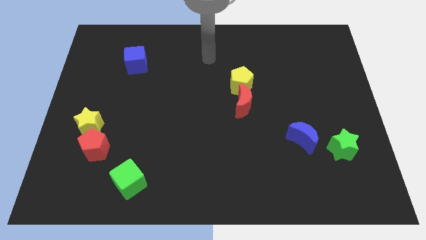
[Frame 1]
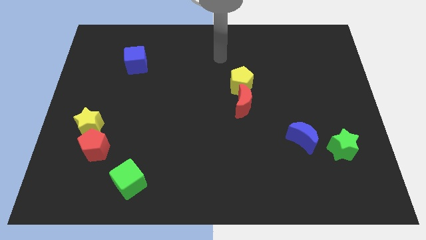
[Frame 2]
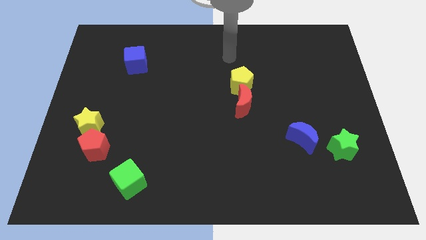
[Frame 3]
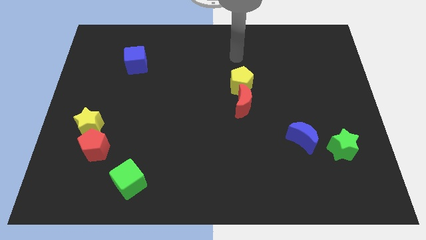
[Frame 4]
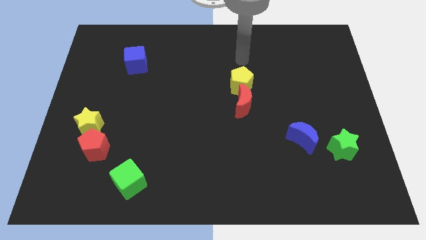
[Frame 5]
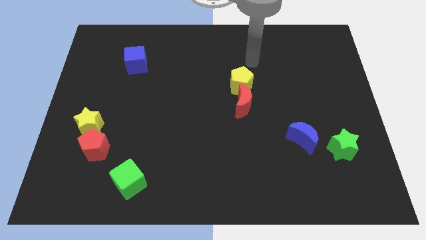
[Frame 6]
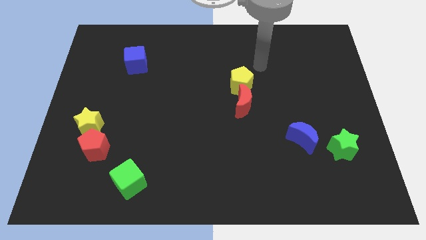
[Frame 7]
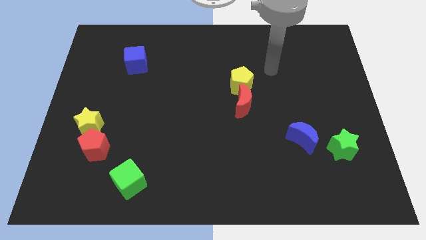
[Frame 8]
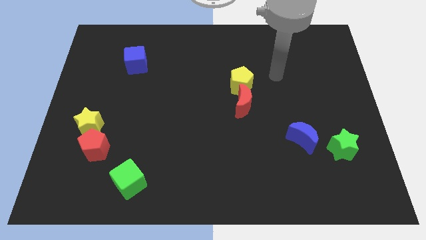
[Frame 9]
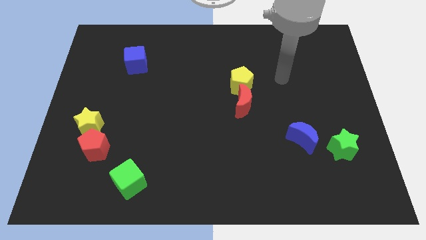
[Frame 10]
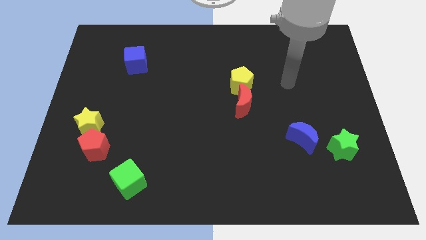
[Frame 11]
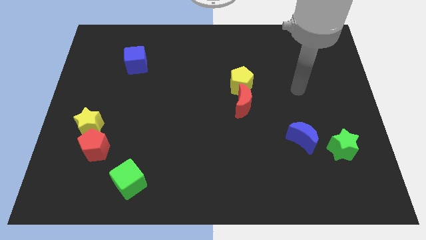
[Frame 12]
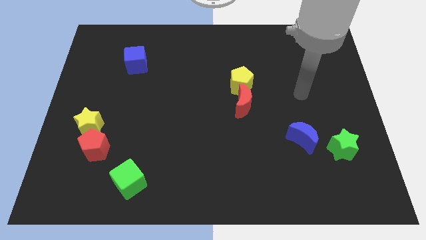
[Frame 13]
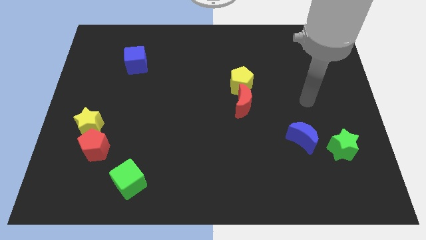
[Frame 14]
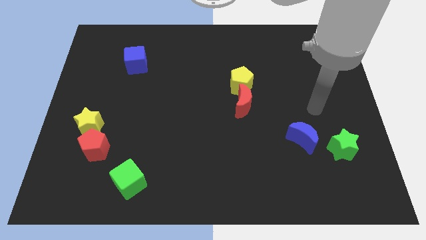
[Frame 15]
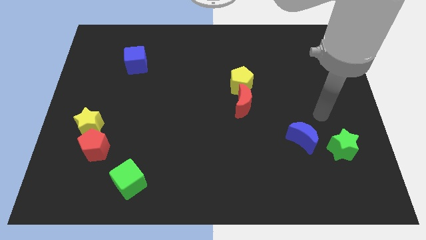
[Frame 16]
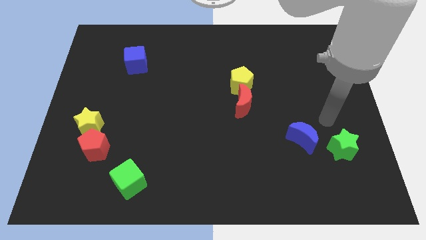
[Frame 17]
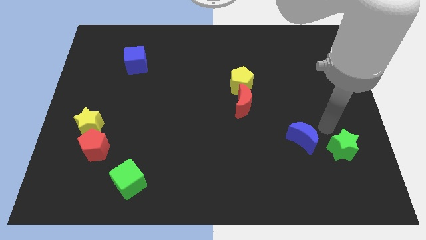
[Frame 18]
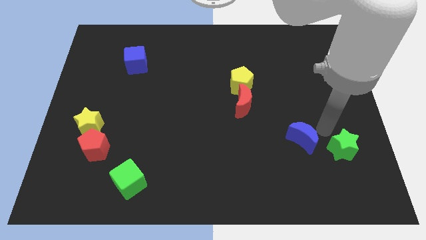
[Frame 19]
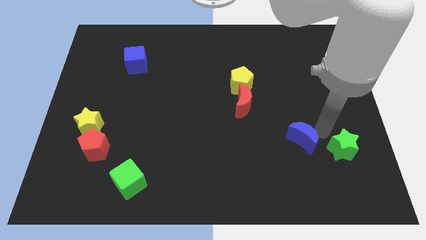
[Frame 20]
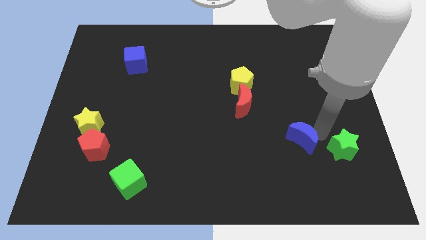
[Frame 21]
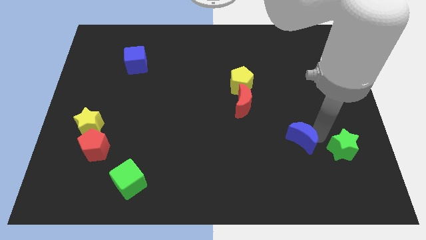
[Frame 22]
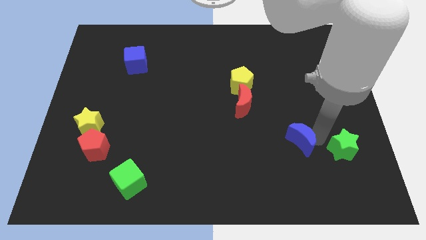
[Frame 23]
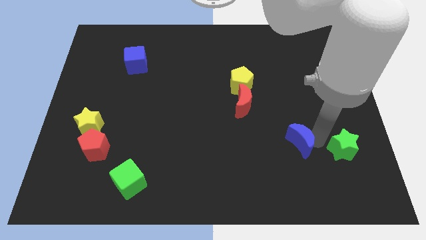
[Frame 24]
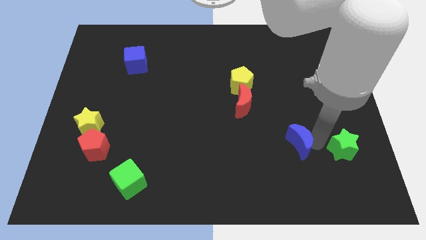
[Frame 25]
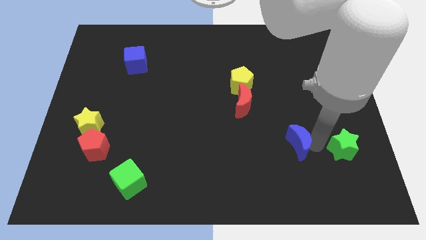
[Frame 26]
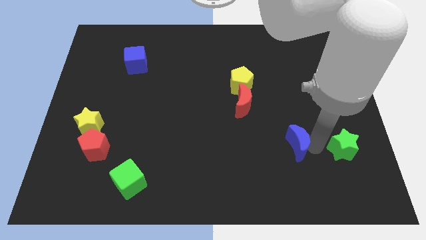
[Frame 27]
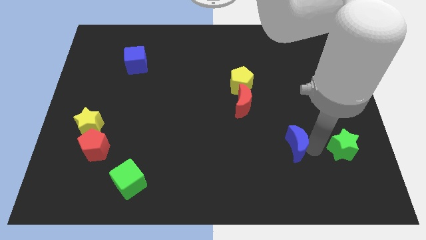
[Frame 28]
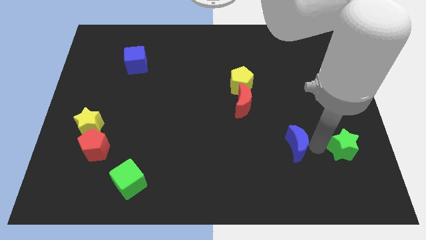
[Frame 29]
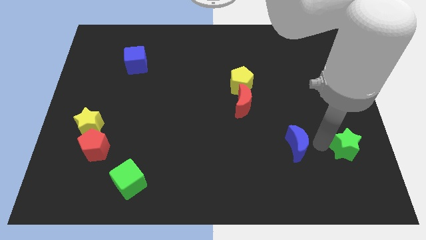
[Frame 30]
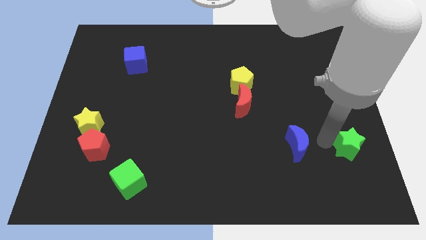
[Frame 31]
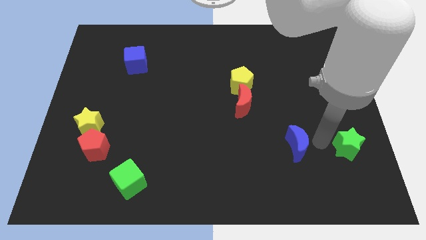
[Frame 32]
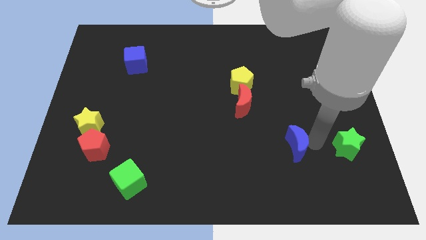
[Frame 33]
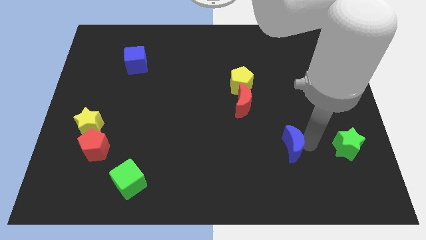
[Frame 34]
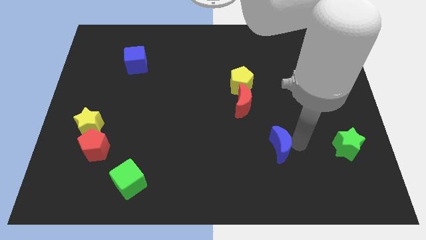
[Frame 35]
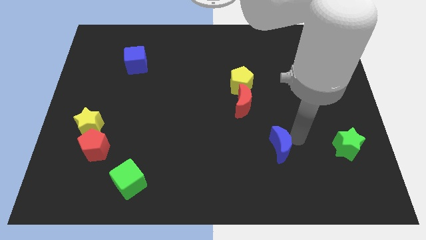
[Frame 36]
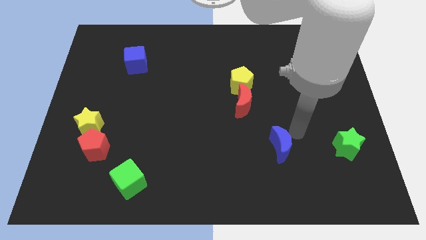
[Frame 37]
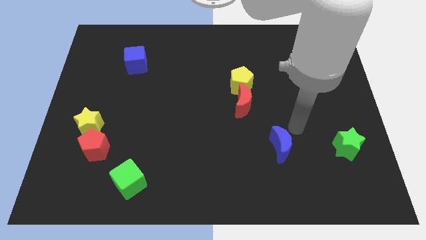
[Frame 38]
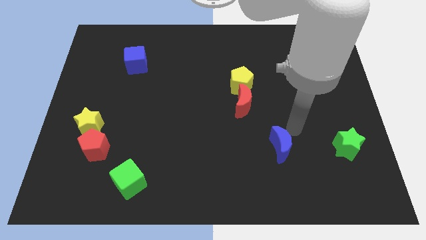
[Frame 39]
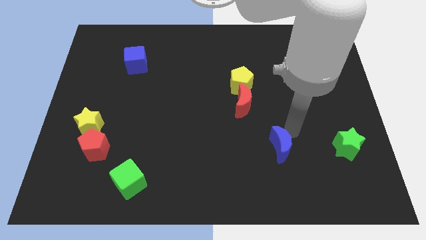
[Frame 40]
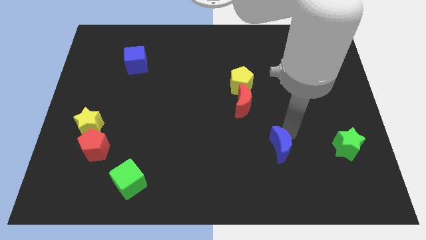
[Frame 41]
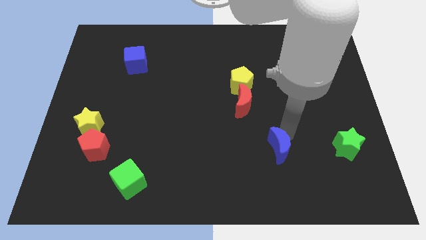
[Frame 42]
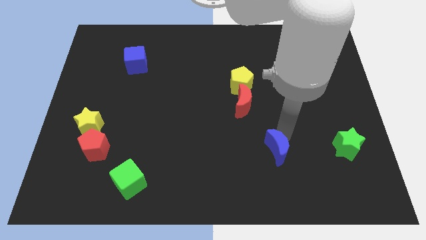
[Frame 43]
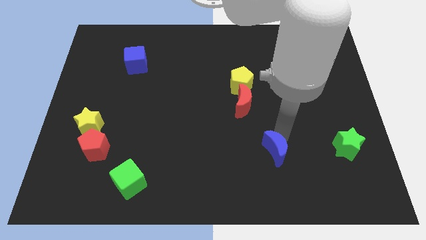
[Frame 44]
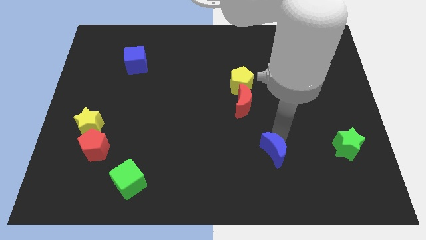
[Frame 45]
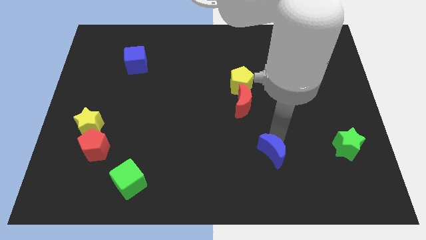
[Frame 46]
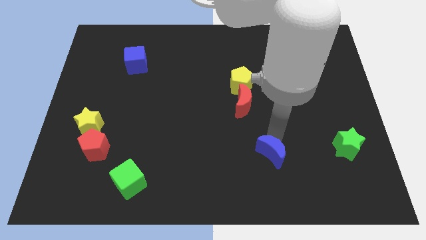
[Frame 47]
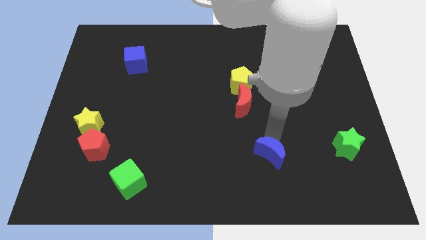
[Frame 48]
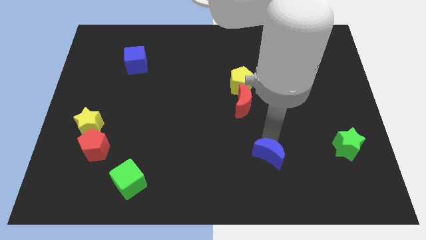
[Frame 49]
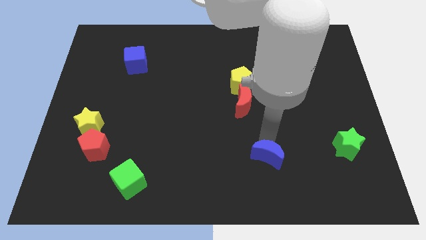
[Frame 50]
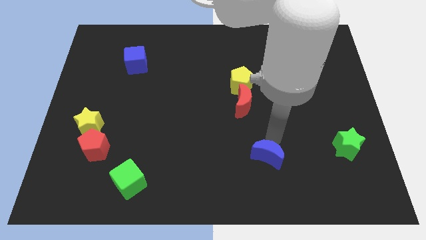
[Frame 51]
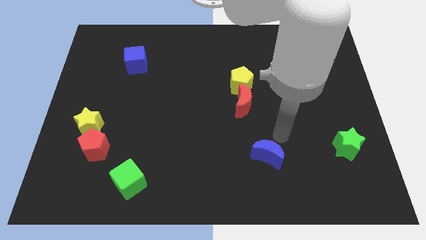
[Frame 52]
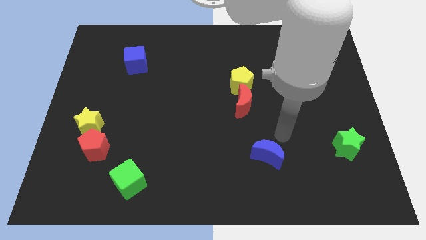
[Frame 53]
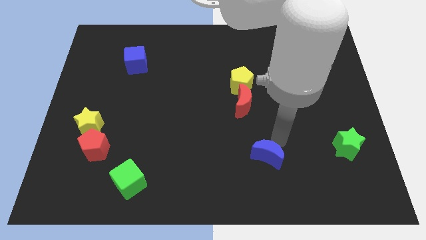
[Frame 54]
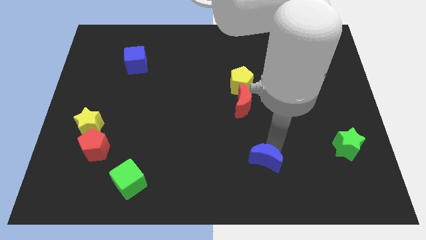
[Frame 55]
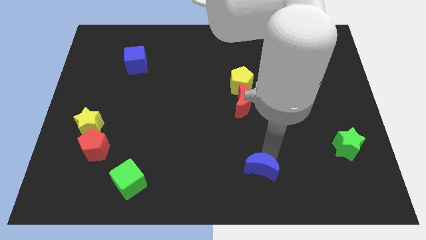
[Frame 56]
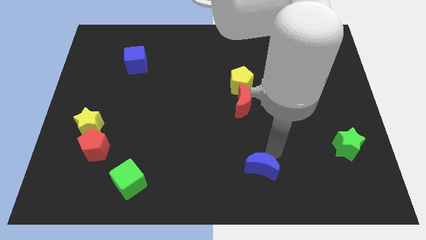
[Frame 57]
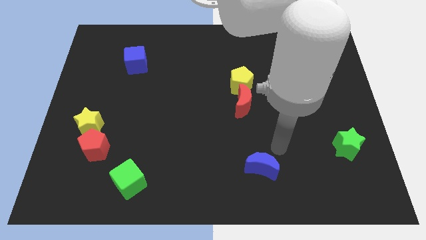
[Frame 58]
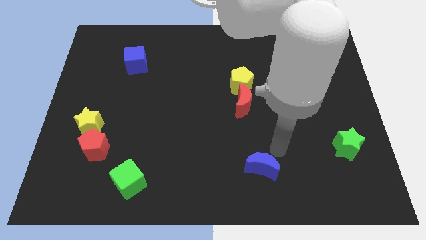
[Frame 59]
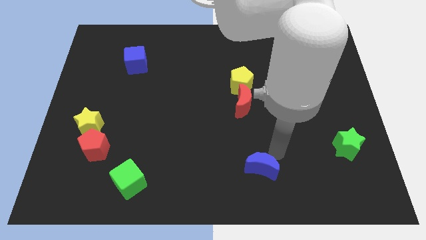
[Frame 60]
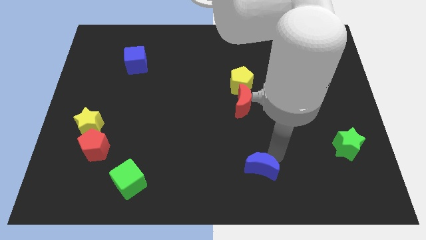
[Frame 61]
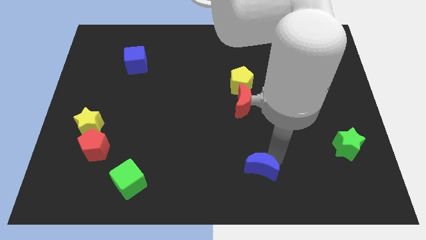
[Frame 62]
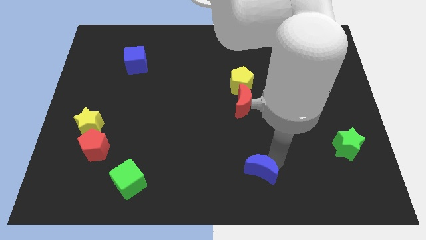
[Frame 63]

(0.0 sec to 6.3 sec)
push the blue moon to the bottom side

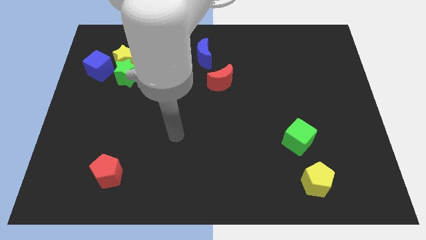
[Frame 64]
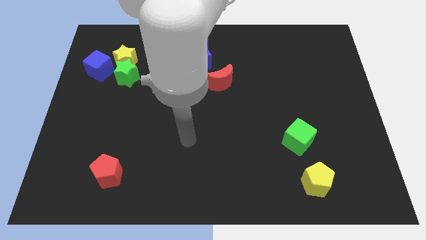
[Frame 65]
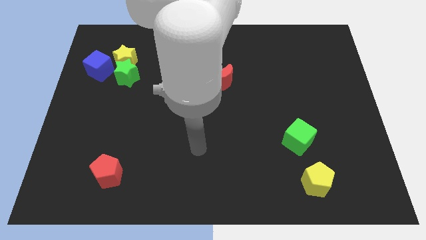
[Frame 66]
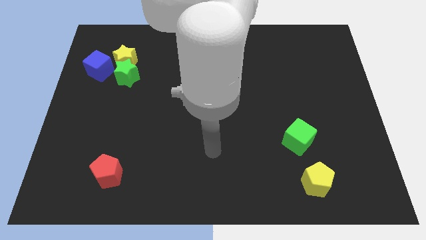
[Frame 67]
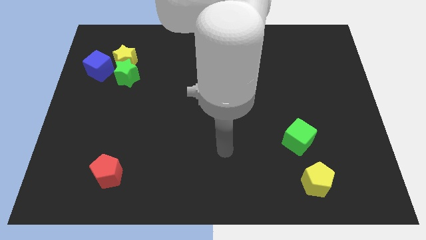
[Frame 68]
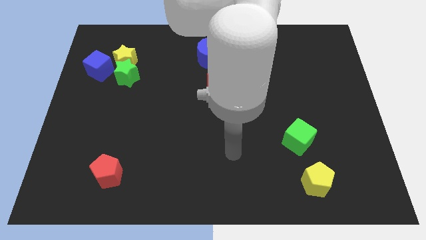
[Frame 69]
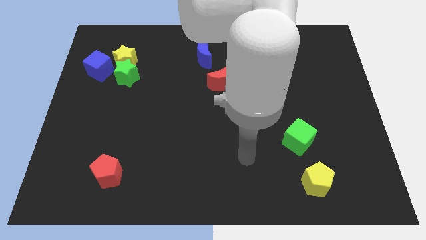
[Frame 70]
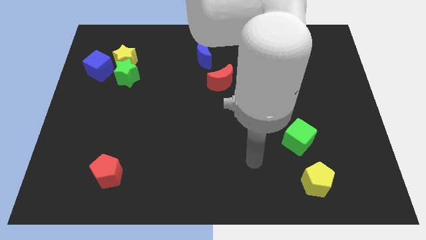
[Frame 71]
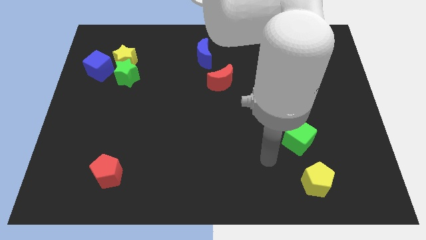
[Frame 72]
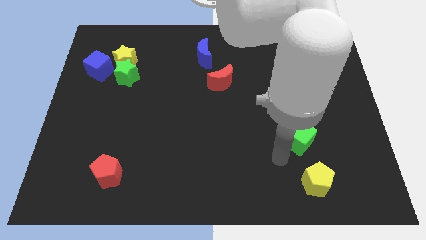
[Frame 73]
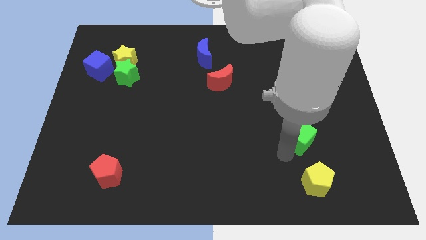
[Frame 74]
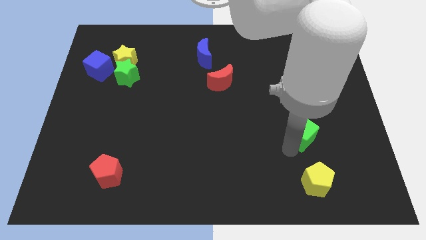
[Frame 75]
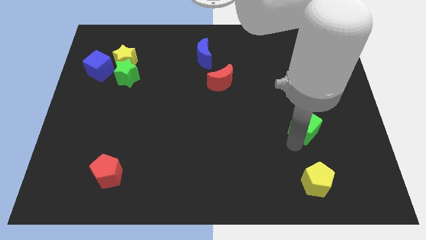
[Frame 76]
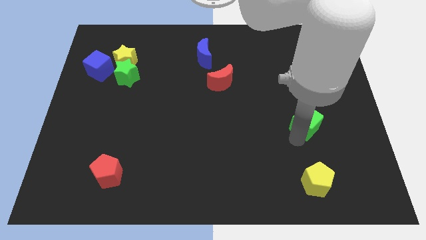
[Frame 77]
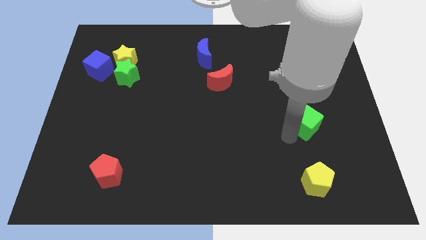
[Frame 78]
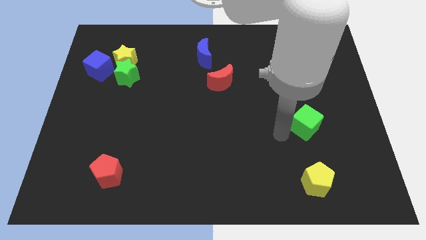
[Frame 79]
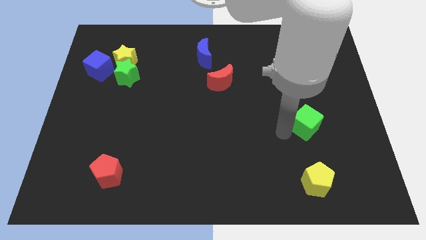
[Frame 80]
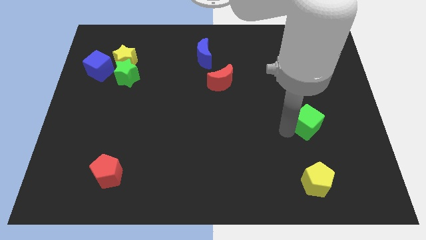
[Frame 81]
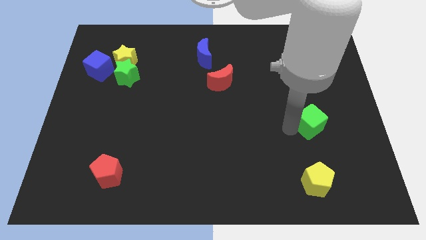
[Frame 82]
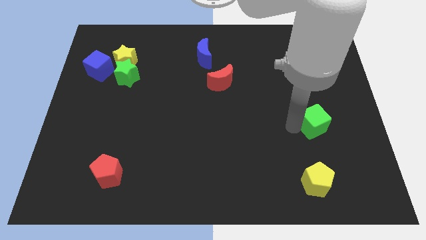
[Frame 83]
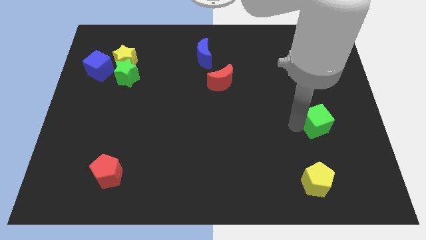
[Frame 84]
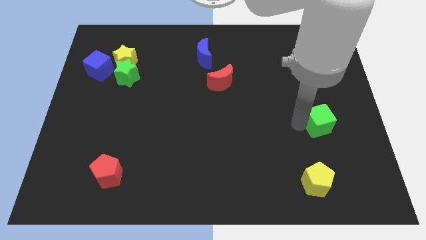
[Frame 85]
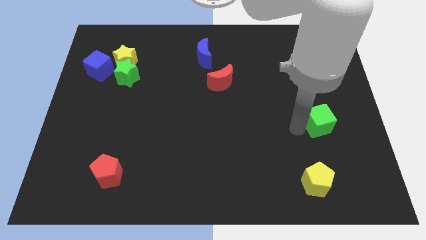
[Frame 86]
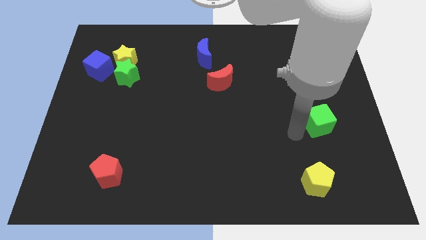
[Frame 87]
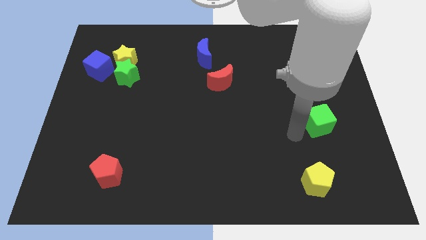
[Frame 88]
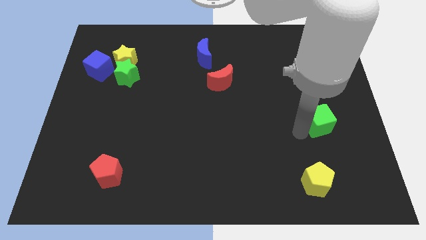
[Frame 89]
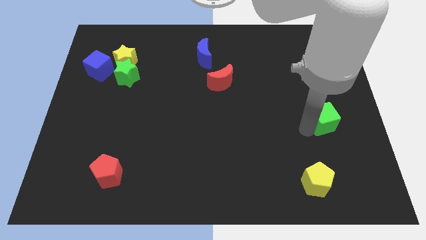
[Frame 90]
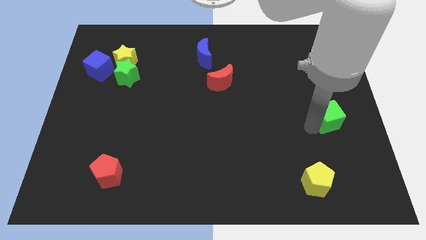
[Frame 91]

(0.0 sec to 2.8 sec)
push the green cube to the center right
